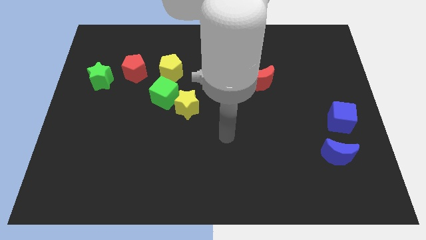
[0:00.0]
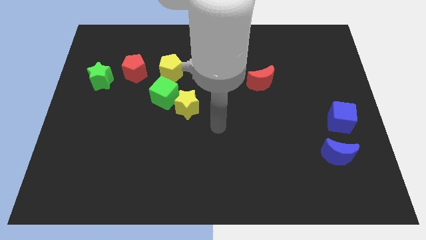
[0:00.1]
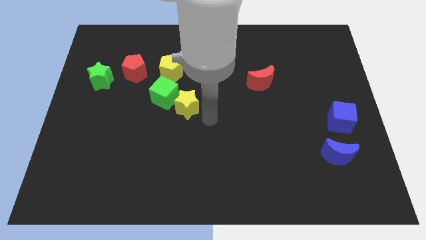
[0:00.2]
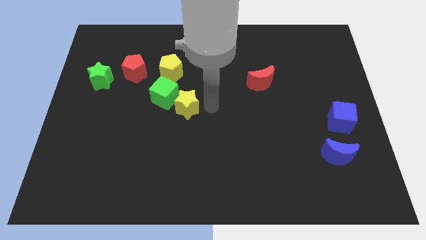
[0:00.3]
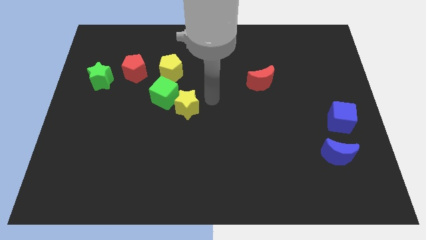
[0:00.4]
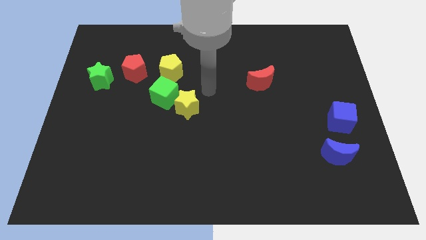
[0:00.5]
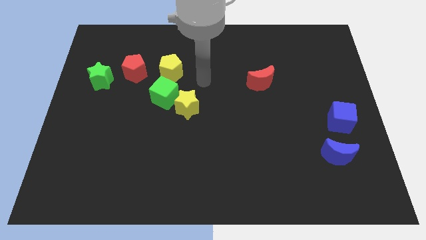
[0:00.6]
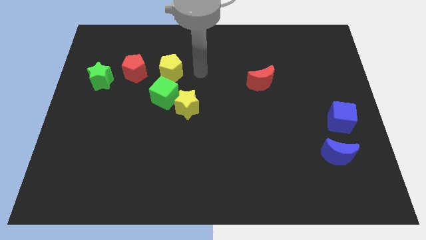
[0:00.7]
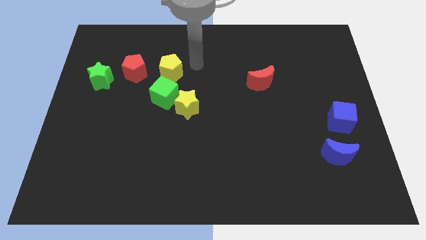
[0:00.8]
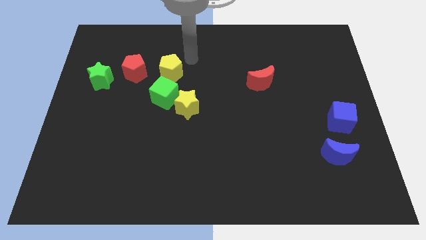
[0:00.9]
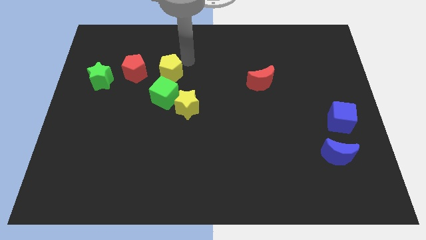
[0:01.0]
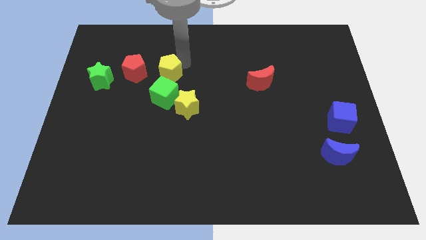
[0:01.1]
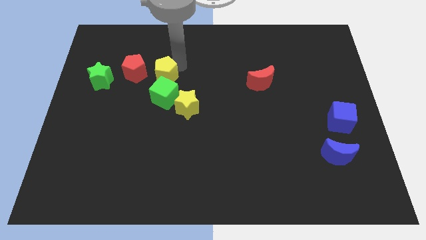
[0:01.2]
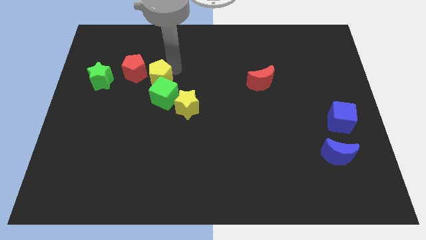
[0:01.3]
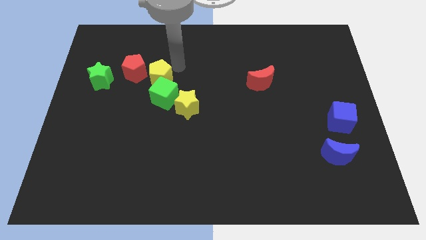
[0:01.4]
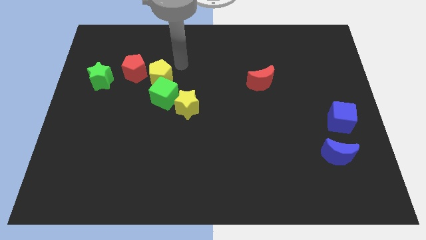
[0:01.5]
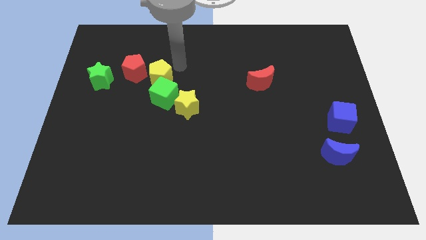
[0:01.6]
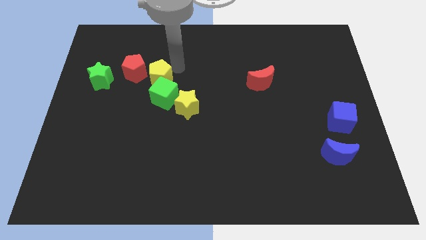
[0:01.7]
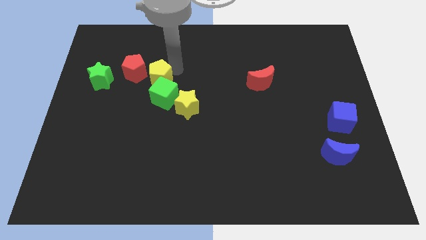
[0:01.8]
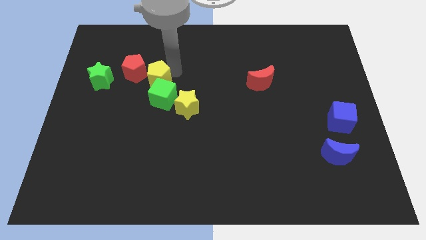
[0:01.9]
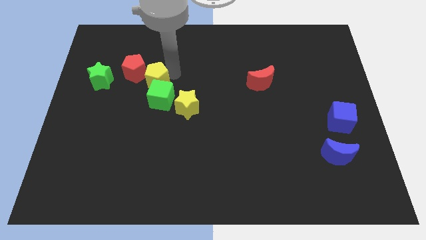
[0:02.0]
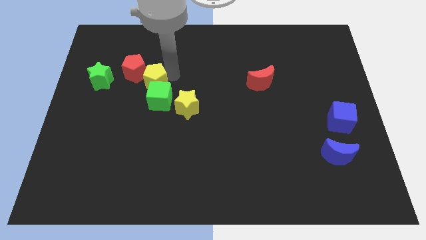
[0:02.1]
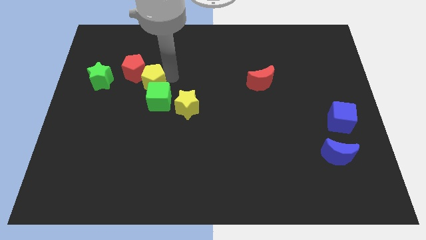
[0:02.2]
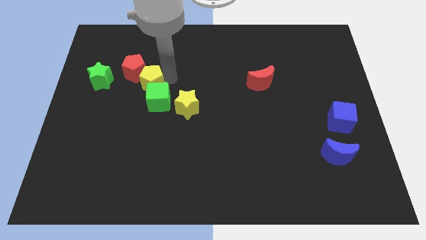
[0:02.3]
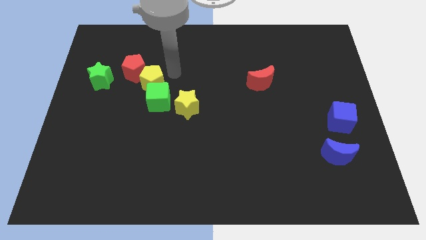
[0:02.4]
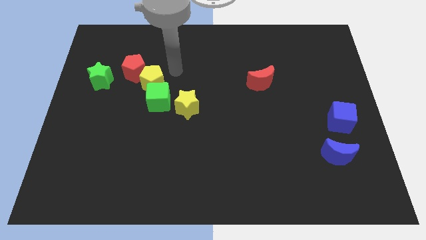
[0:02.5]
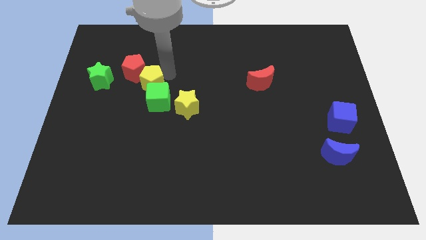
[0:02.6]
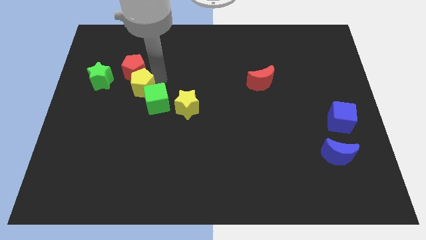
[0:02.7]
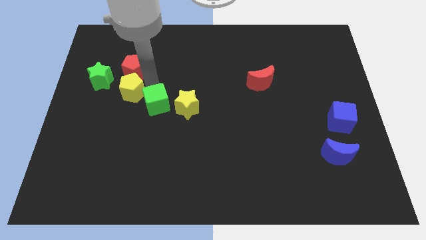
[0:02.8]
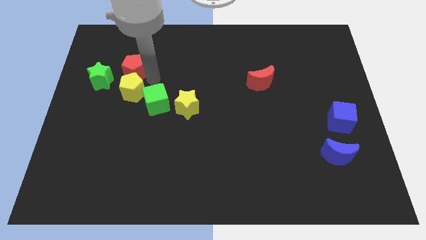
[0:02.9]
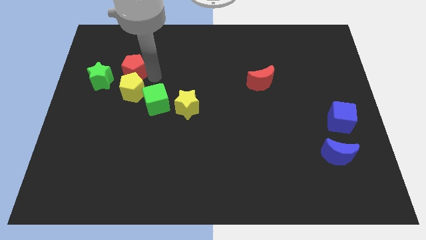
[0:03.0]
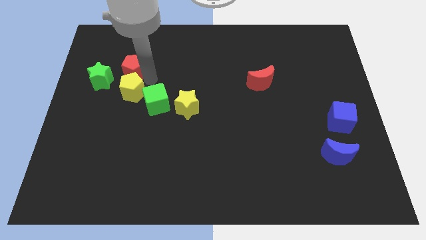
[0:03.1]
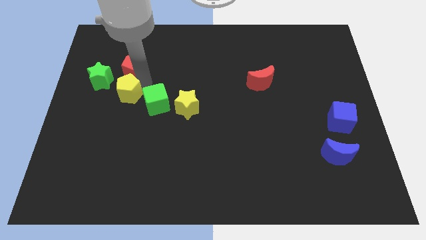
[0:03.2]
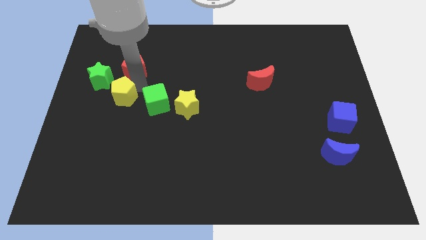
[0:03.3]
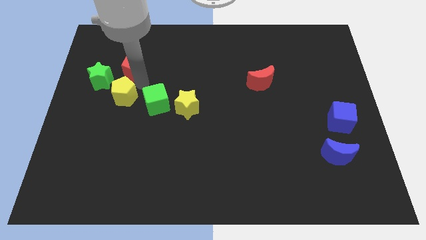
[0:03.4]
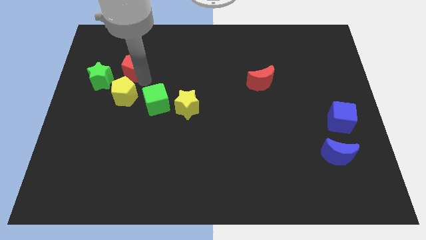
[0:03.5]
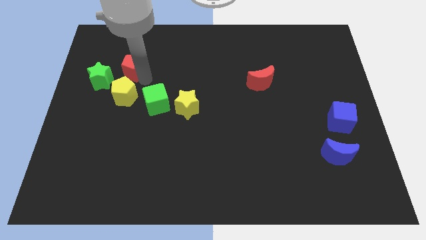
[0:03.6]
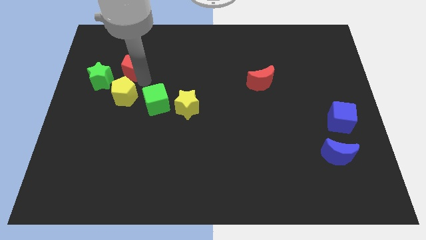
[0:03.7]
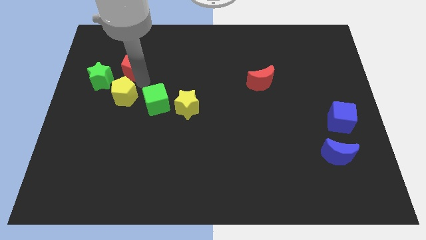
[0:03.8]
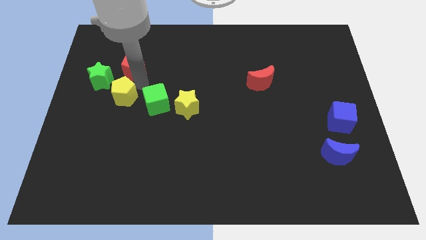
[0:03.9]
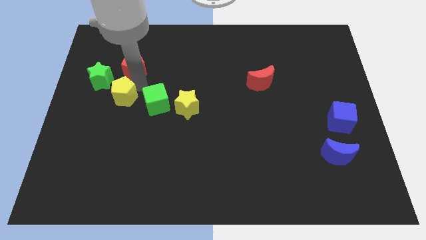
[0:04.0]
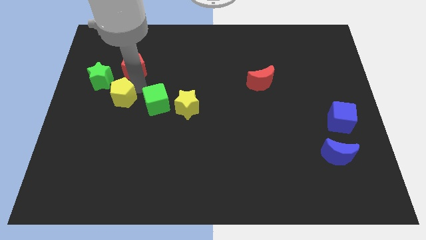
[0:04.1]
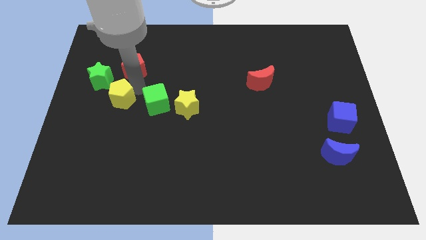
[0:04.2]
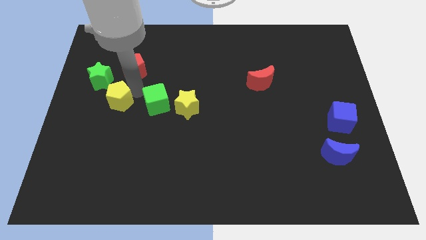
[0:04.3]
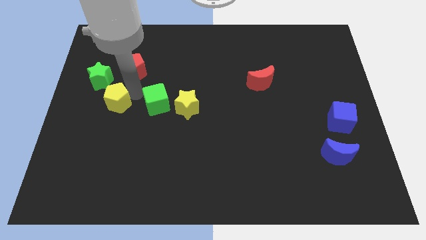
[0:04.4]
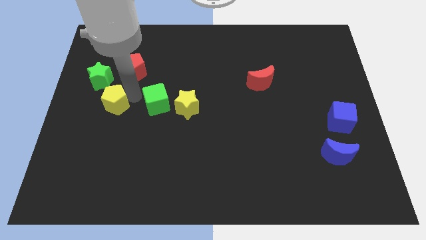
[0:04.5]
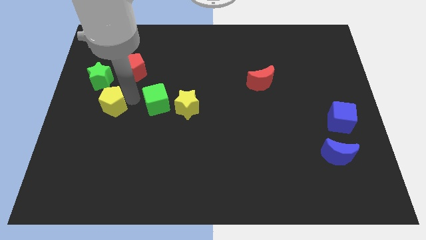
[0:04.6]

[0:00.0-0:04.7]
put the yellow pentagon below the green star

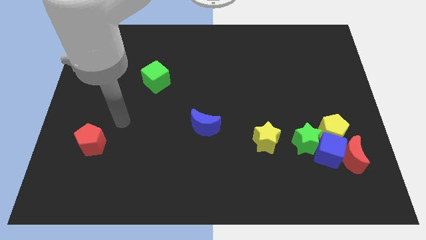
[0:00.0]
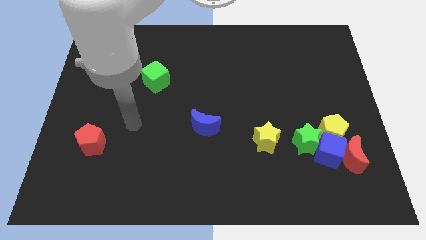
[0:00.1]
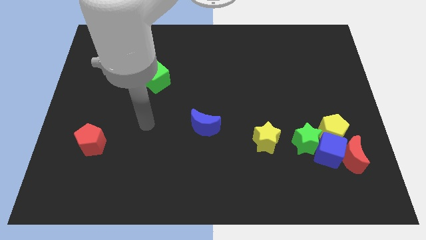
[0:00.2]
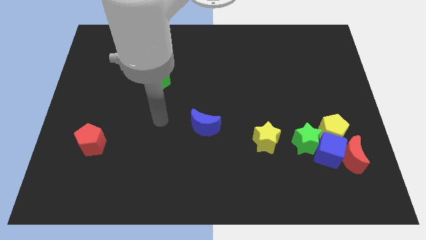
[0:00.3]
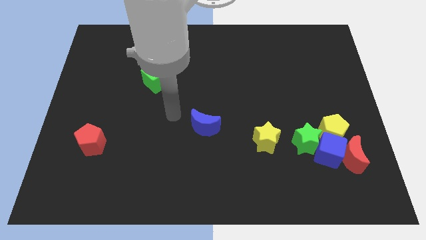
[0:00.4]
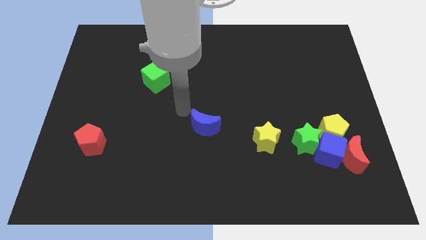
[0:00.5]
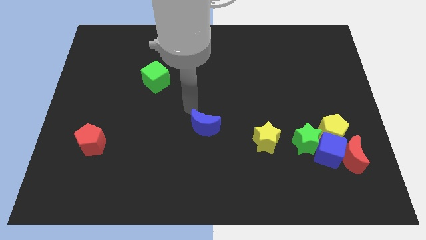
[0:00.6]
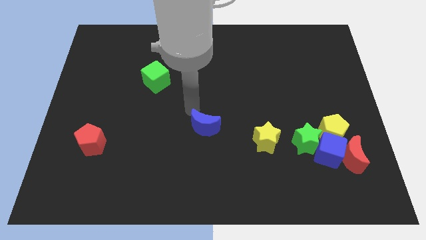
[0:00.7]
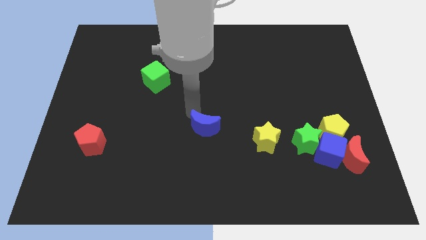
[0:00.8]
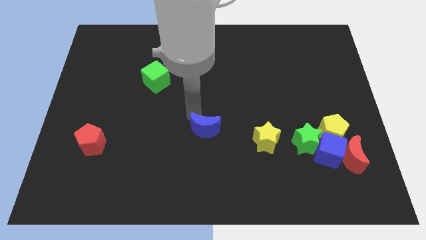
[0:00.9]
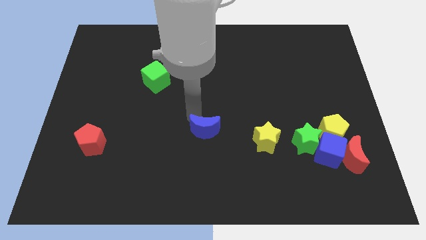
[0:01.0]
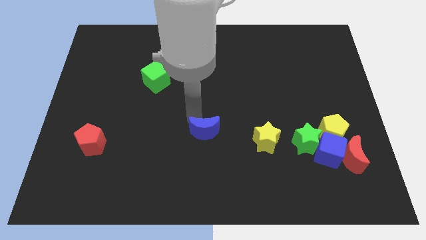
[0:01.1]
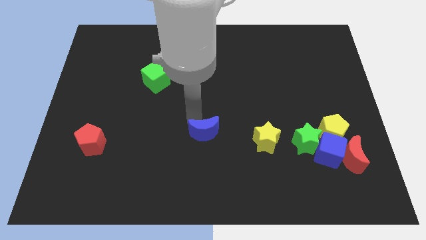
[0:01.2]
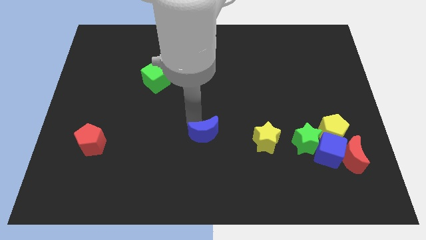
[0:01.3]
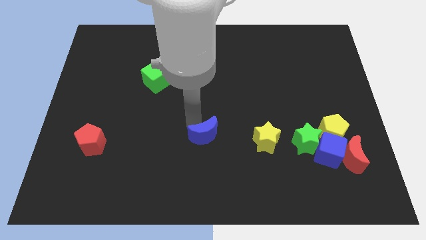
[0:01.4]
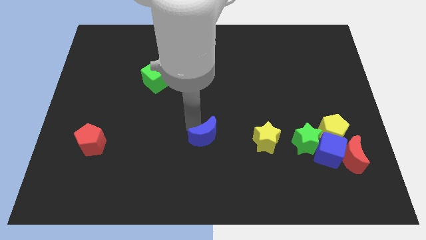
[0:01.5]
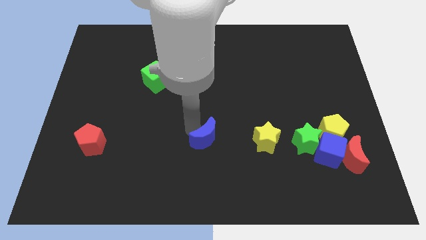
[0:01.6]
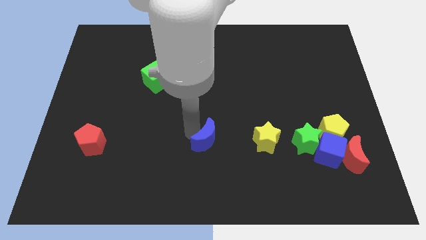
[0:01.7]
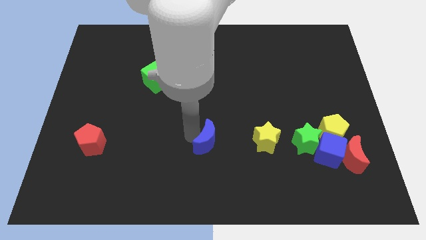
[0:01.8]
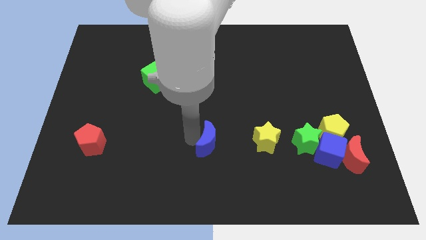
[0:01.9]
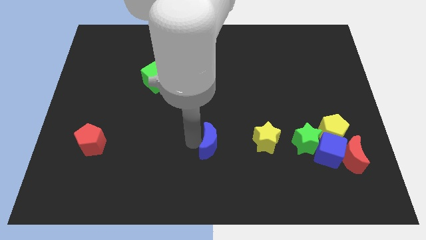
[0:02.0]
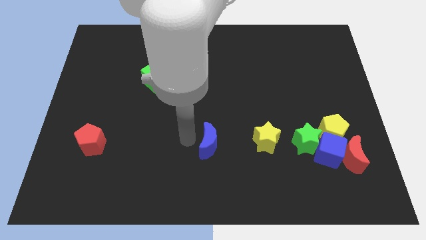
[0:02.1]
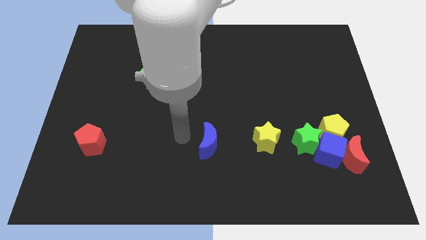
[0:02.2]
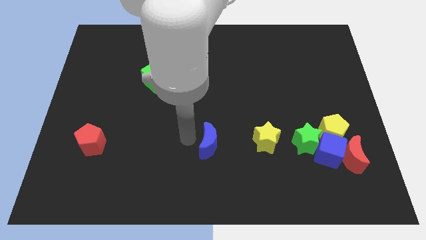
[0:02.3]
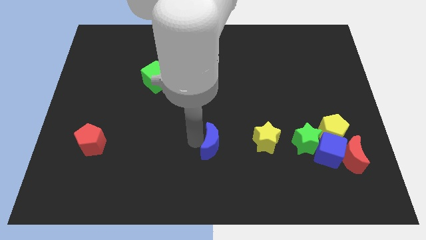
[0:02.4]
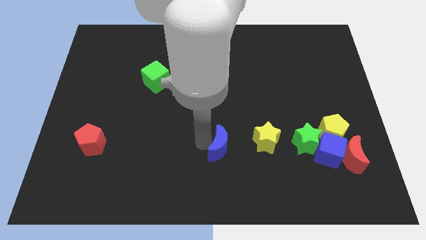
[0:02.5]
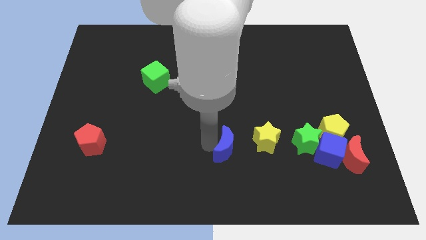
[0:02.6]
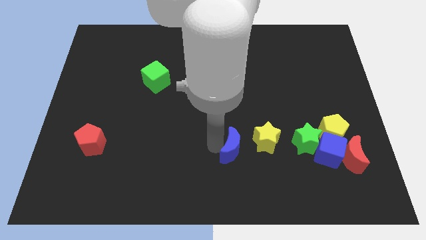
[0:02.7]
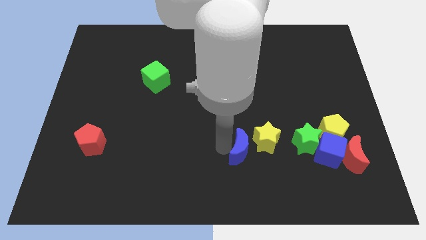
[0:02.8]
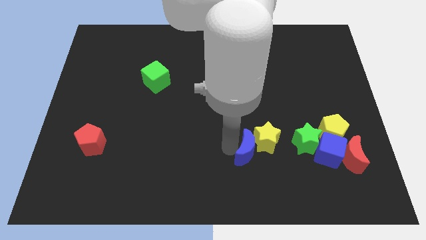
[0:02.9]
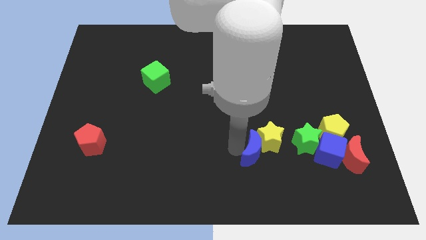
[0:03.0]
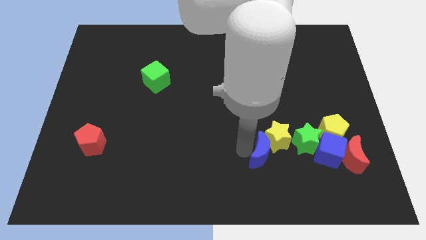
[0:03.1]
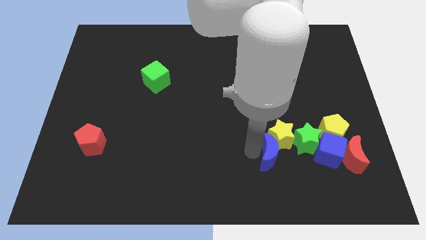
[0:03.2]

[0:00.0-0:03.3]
move the blue moon diagonally down and to the left of the green star
